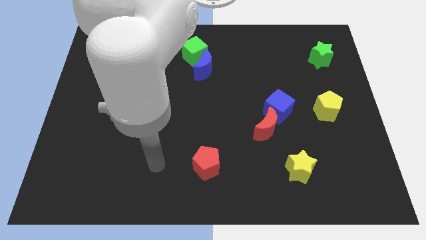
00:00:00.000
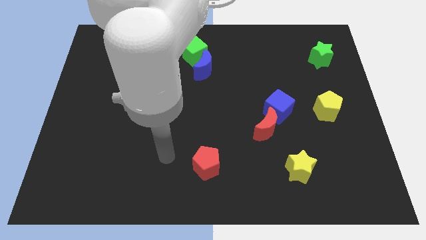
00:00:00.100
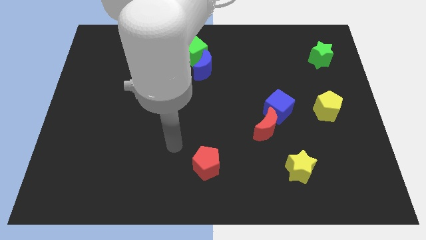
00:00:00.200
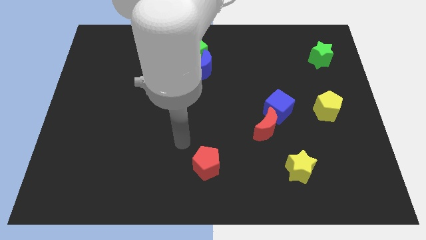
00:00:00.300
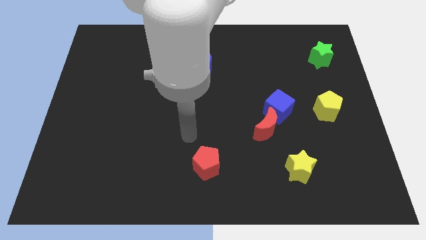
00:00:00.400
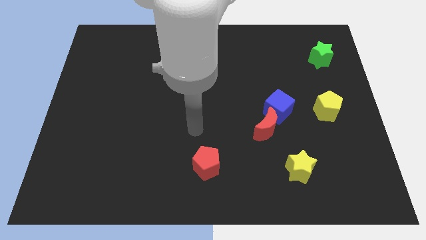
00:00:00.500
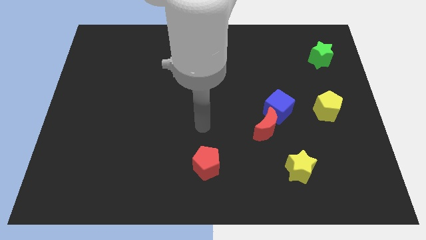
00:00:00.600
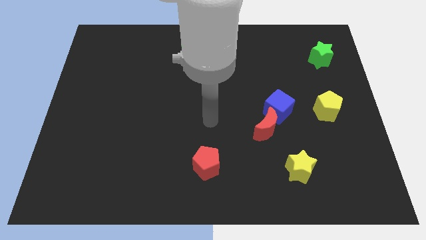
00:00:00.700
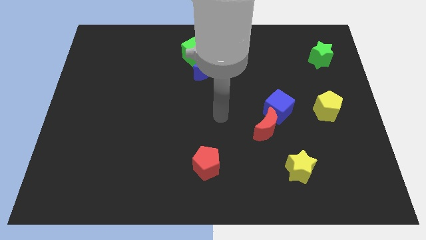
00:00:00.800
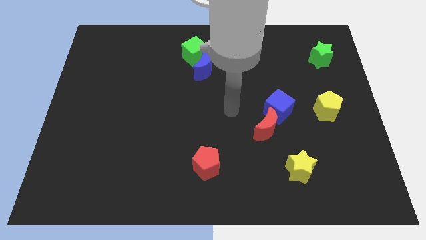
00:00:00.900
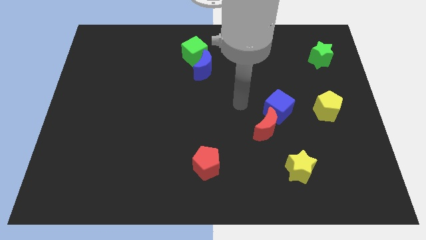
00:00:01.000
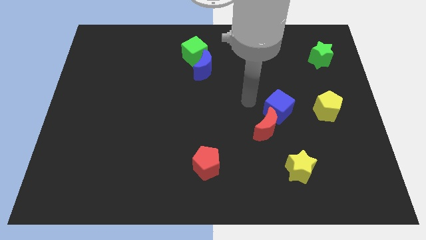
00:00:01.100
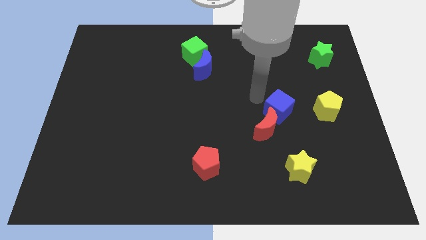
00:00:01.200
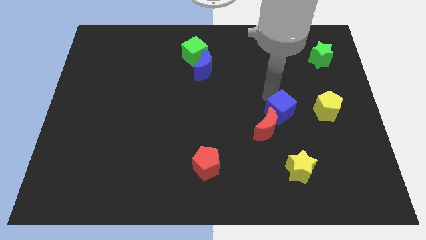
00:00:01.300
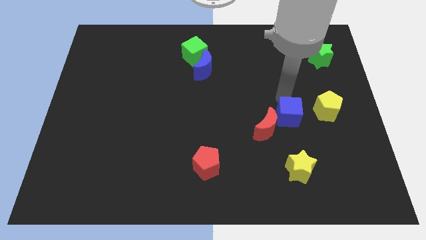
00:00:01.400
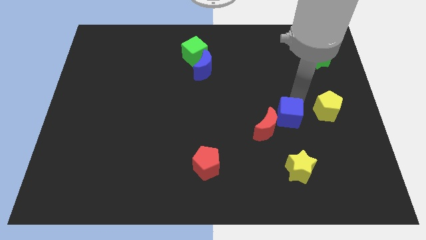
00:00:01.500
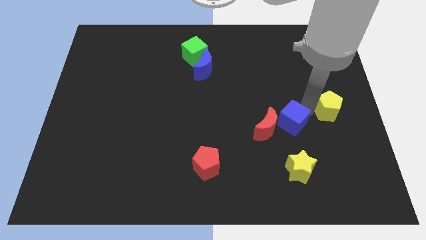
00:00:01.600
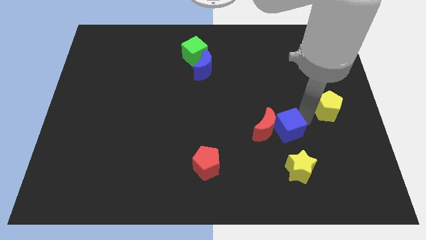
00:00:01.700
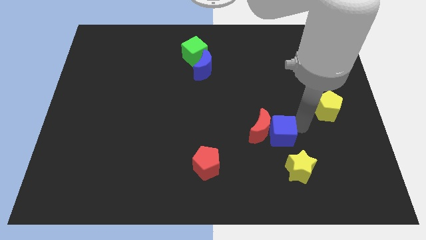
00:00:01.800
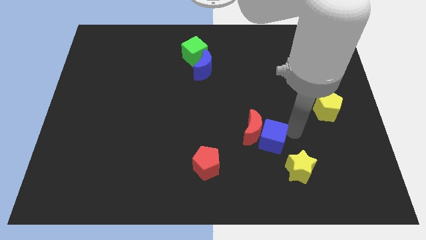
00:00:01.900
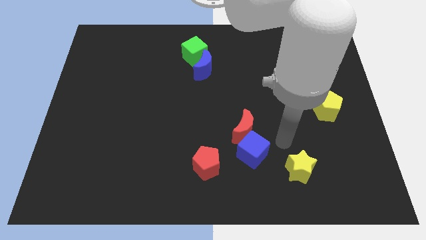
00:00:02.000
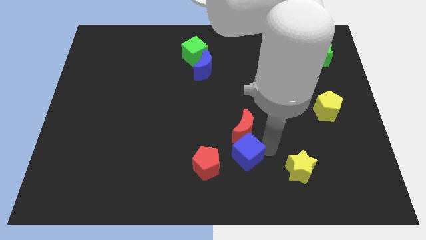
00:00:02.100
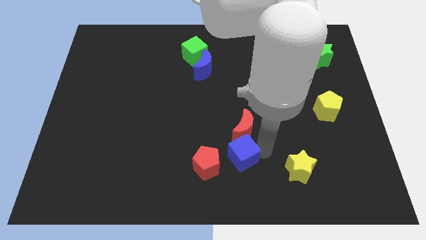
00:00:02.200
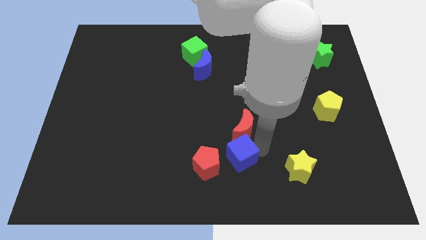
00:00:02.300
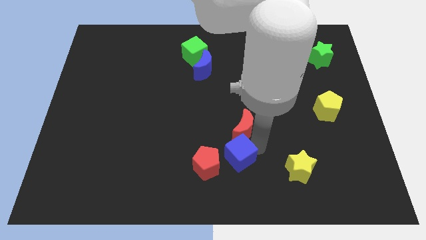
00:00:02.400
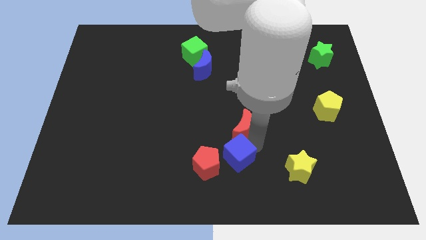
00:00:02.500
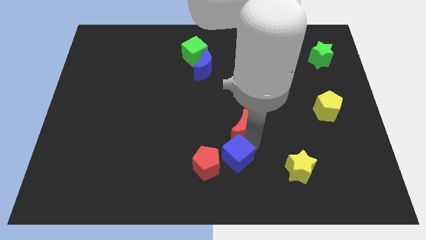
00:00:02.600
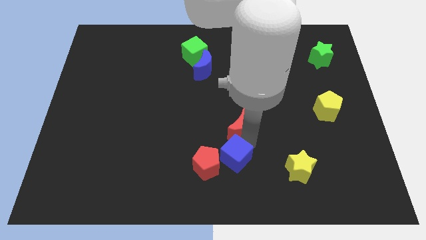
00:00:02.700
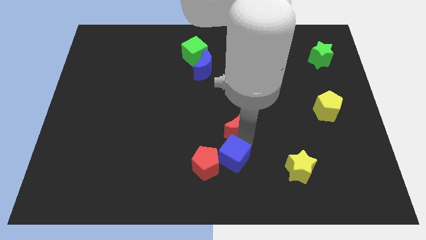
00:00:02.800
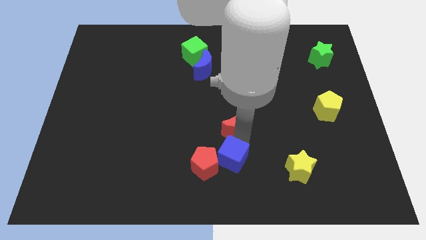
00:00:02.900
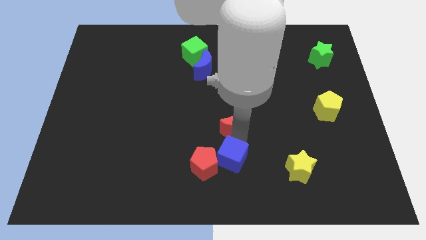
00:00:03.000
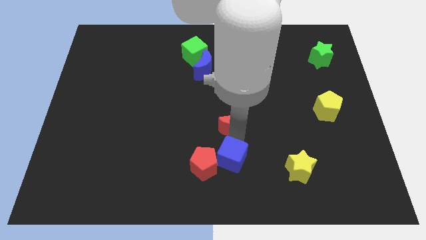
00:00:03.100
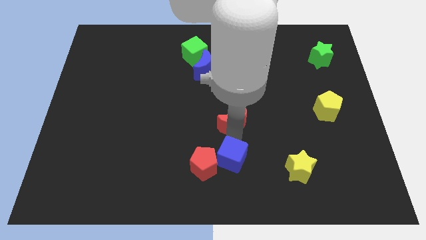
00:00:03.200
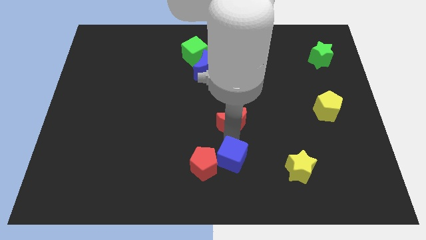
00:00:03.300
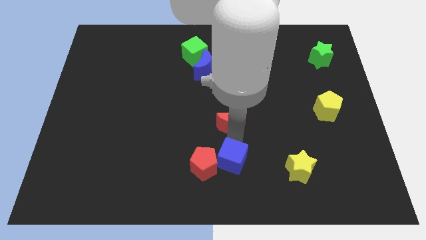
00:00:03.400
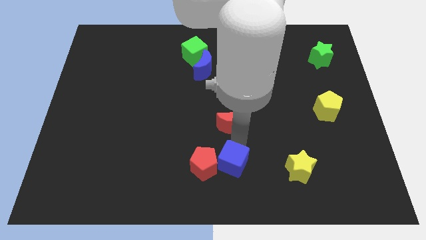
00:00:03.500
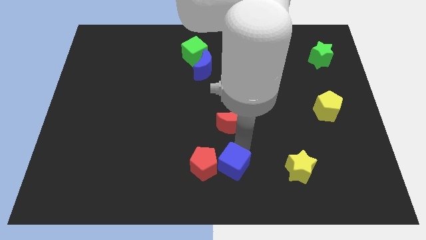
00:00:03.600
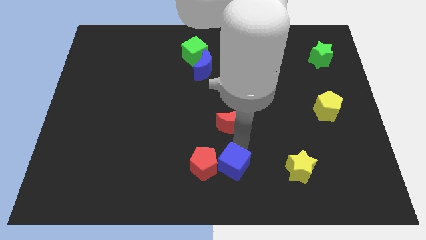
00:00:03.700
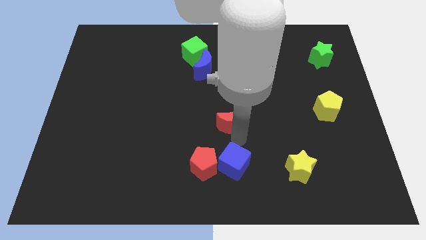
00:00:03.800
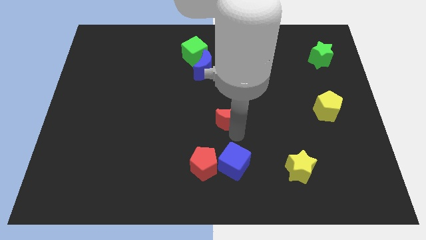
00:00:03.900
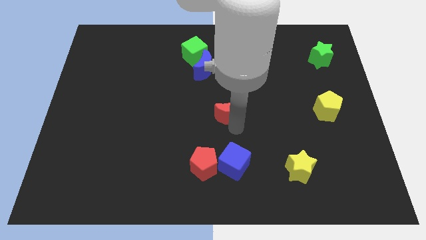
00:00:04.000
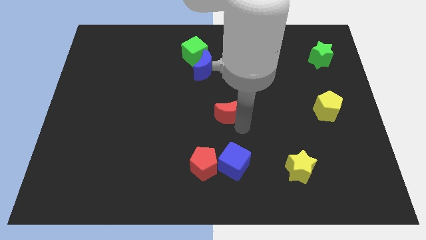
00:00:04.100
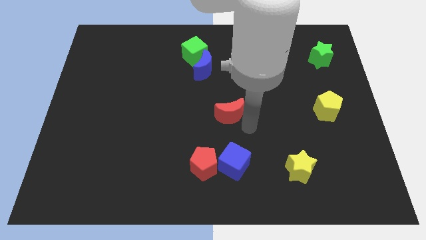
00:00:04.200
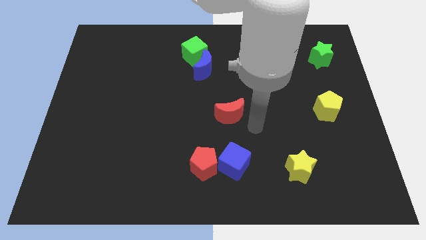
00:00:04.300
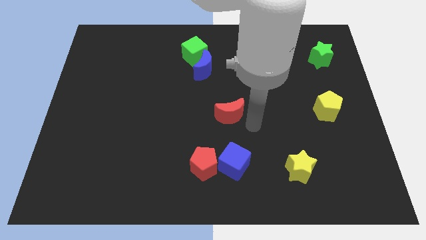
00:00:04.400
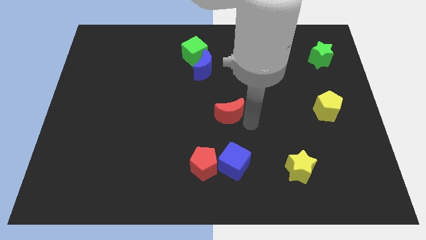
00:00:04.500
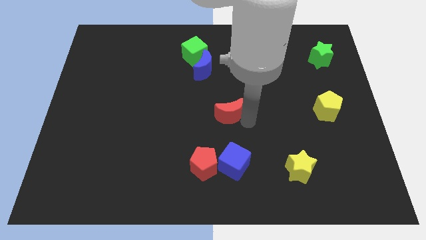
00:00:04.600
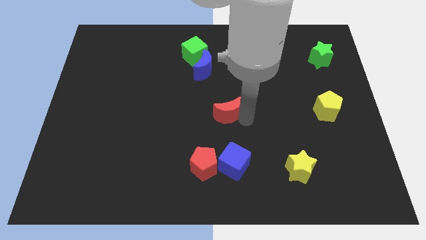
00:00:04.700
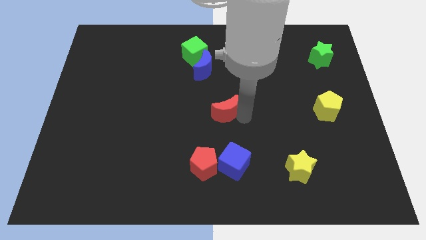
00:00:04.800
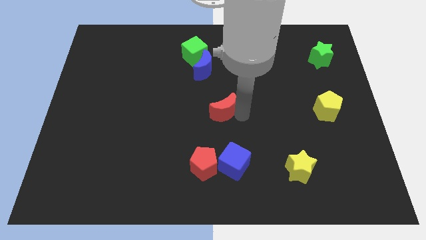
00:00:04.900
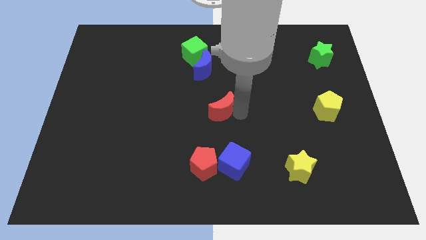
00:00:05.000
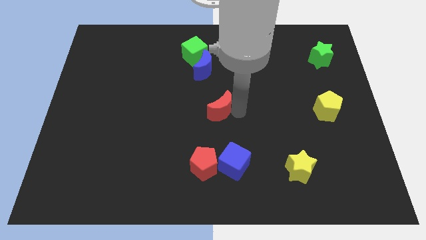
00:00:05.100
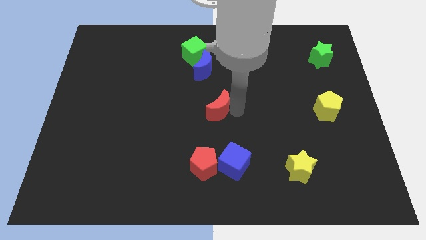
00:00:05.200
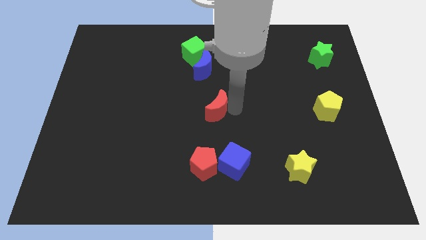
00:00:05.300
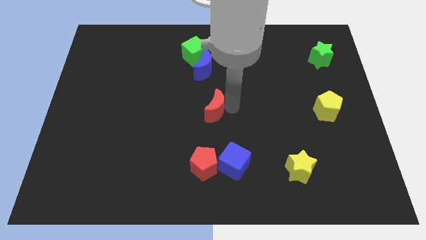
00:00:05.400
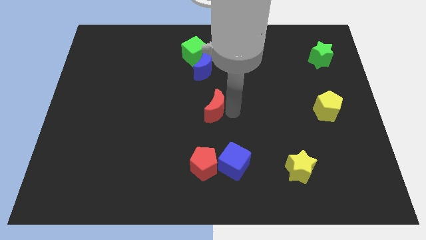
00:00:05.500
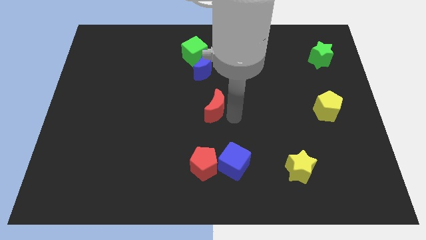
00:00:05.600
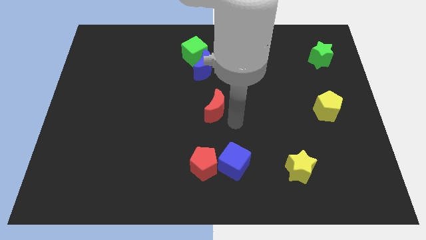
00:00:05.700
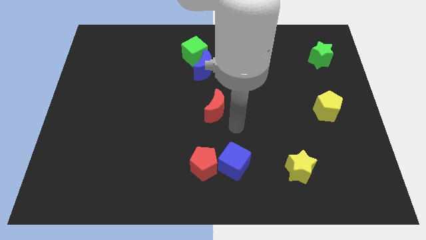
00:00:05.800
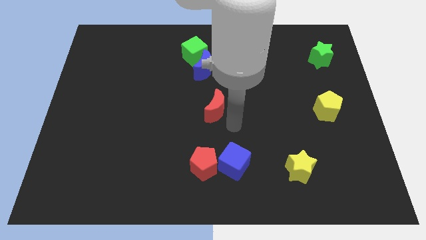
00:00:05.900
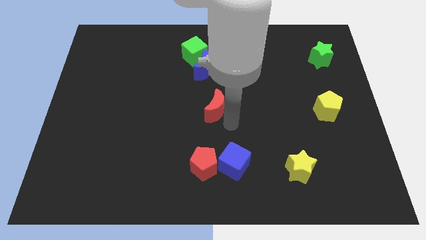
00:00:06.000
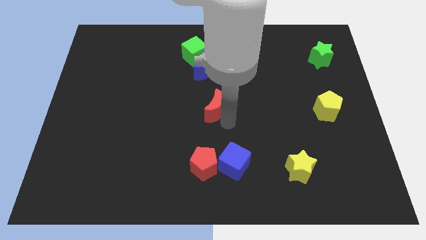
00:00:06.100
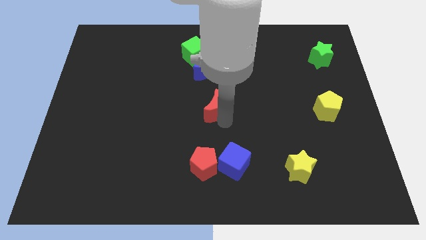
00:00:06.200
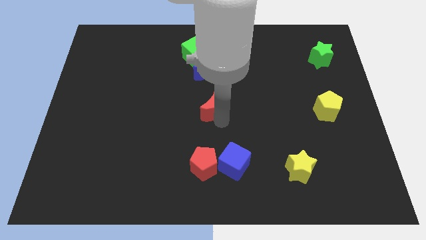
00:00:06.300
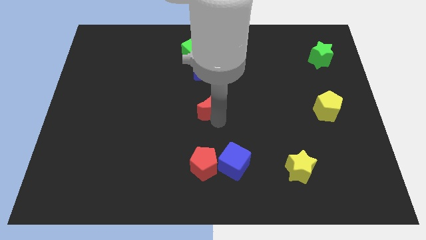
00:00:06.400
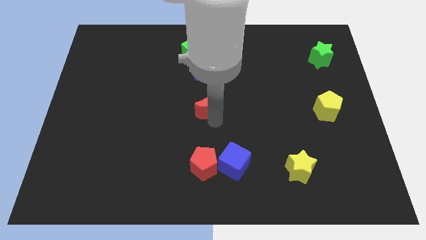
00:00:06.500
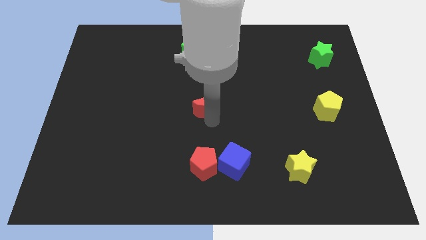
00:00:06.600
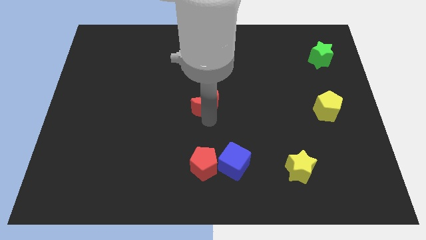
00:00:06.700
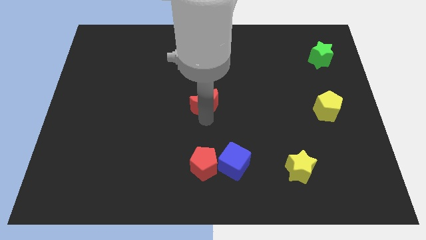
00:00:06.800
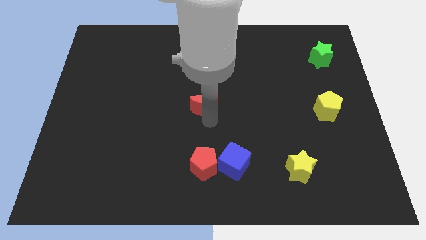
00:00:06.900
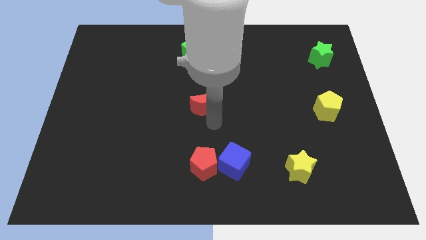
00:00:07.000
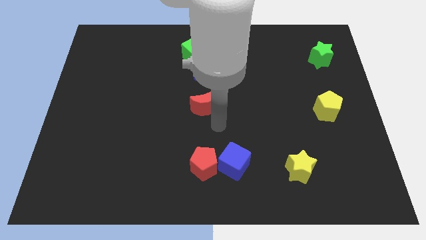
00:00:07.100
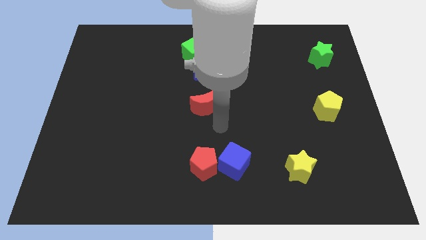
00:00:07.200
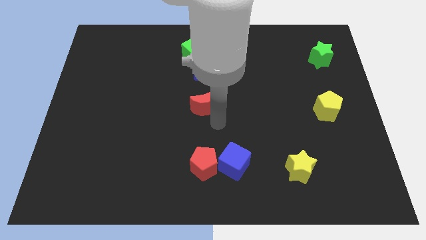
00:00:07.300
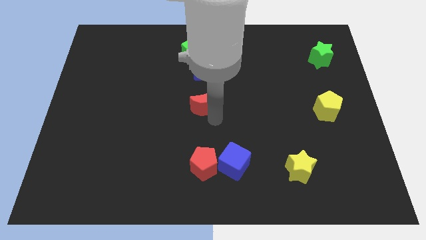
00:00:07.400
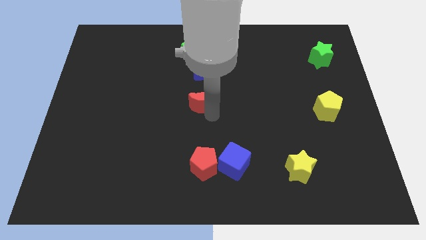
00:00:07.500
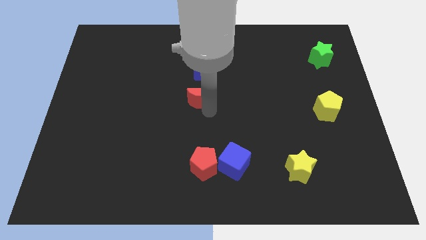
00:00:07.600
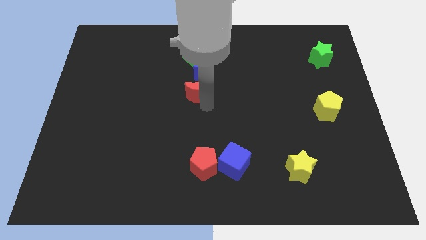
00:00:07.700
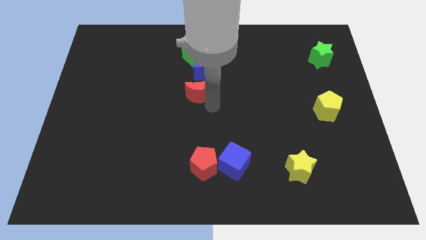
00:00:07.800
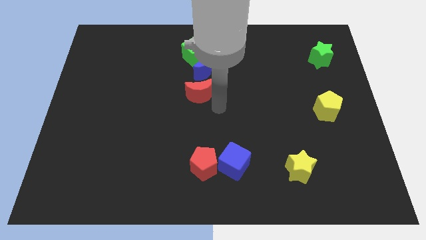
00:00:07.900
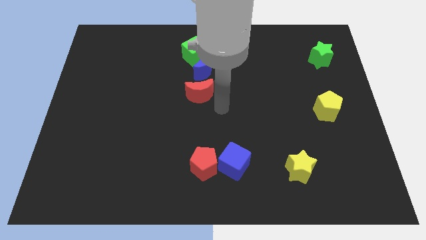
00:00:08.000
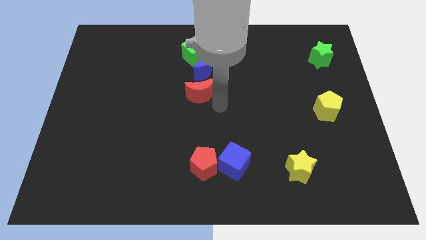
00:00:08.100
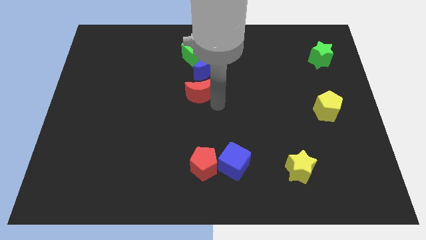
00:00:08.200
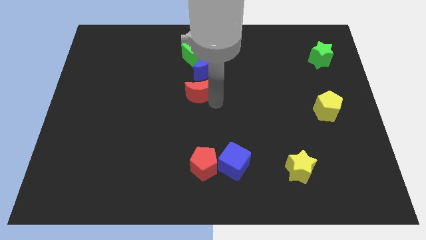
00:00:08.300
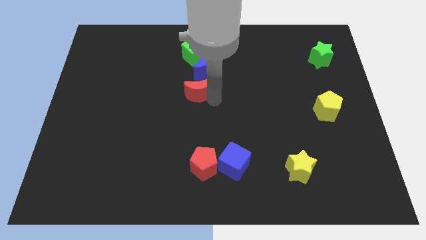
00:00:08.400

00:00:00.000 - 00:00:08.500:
push the red moon to the bottom left side of the blue moon
